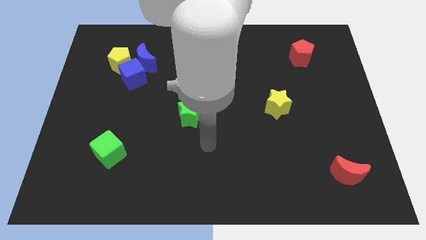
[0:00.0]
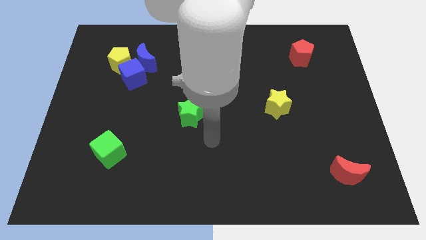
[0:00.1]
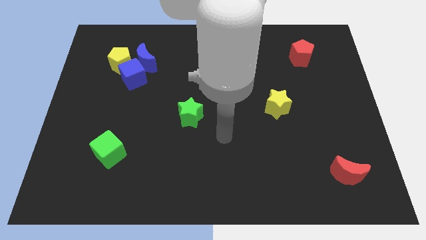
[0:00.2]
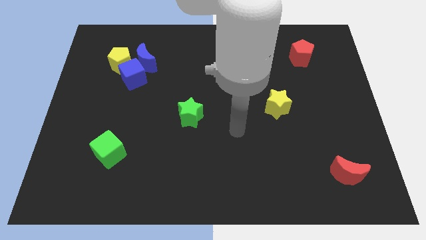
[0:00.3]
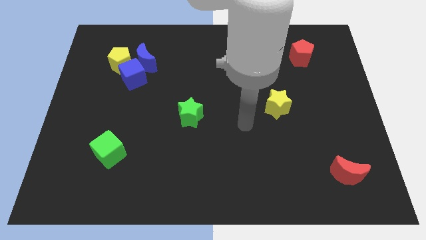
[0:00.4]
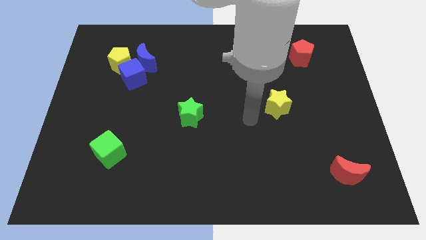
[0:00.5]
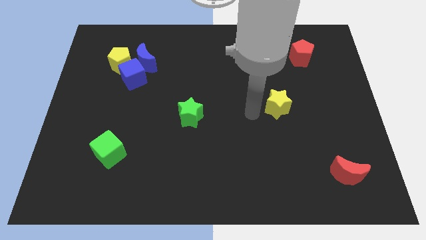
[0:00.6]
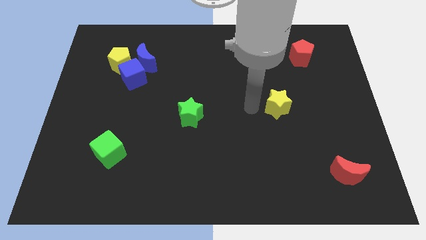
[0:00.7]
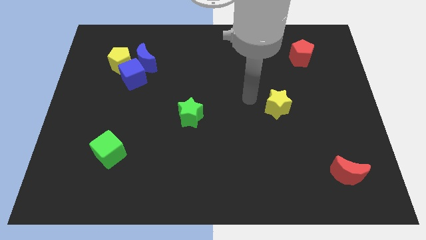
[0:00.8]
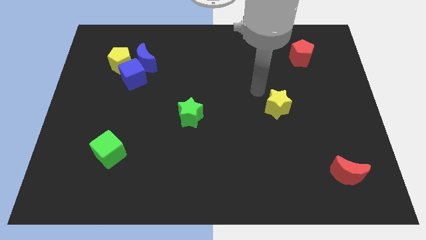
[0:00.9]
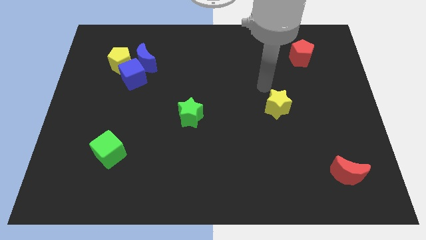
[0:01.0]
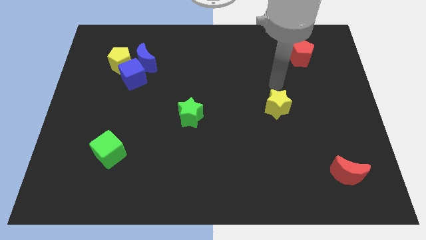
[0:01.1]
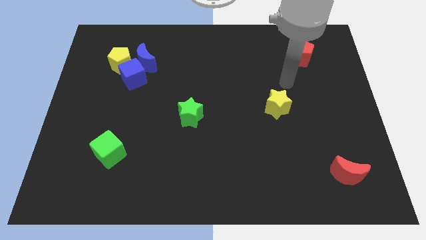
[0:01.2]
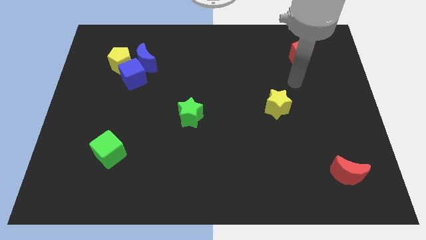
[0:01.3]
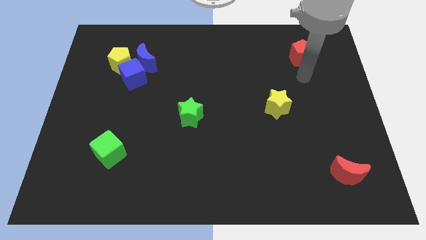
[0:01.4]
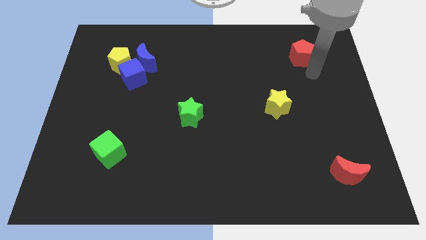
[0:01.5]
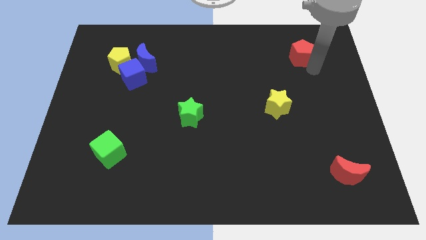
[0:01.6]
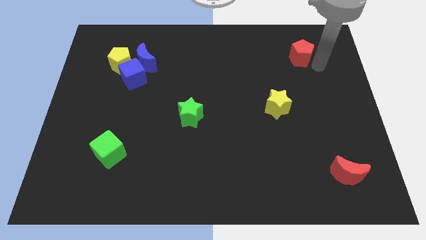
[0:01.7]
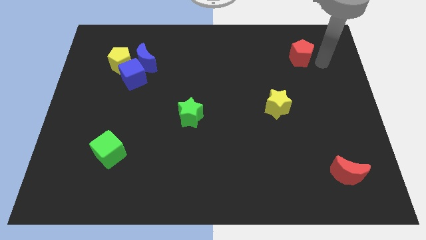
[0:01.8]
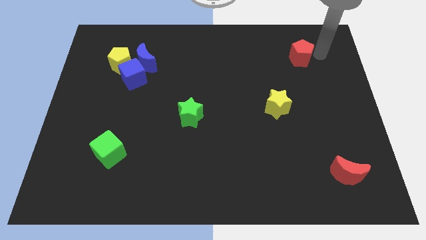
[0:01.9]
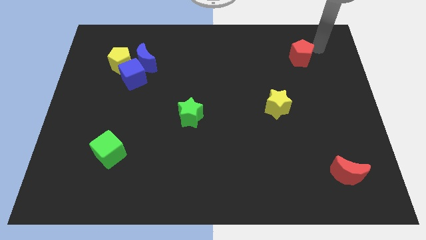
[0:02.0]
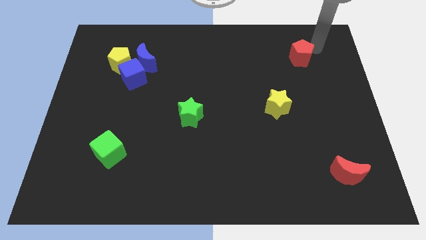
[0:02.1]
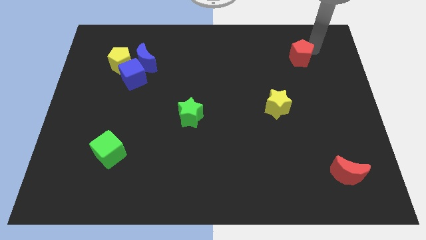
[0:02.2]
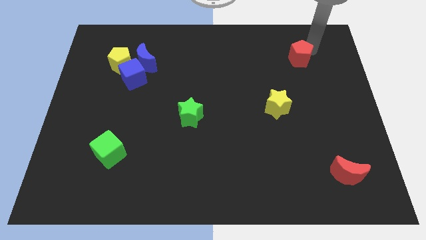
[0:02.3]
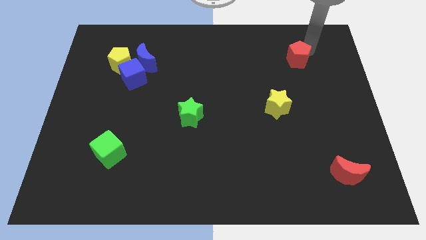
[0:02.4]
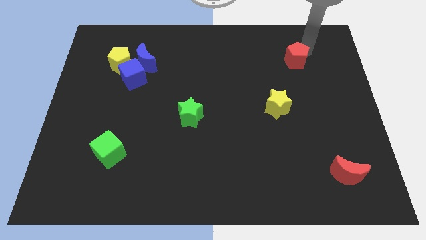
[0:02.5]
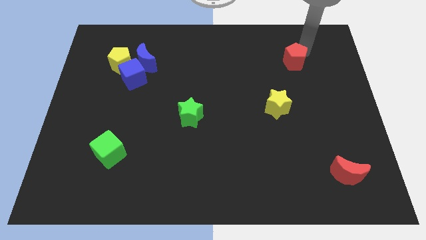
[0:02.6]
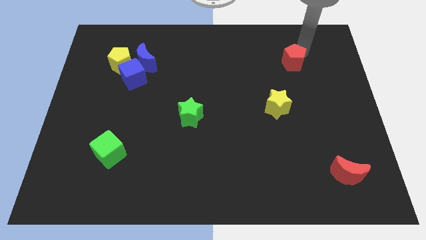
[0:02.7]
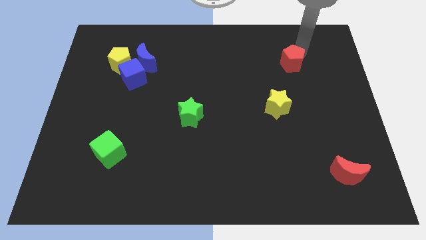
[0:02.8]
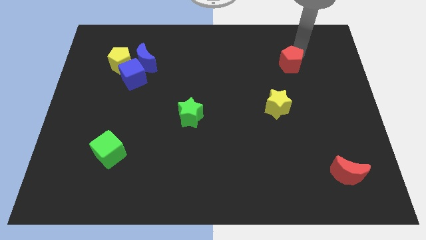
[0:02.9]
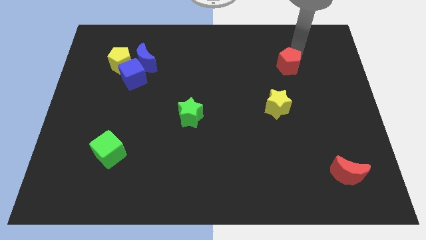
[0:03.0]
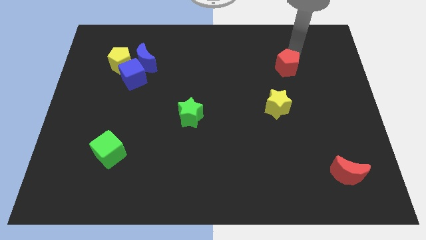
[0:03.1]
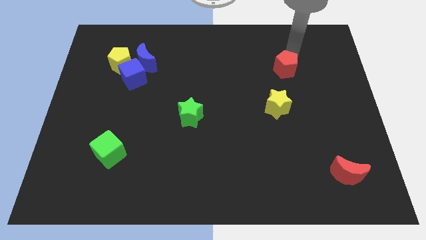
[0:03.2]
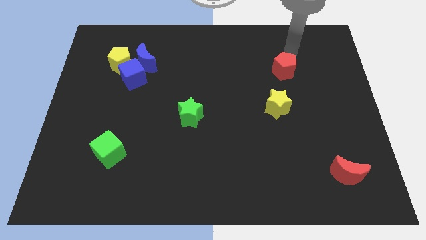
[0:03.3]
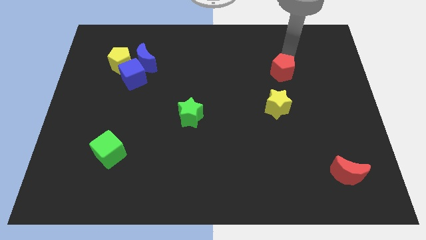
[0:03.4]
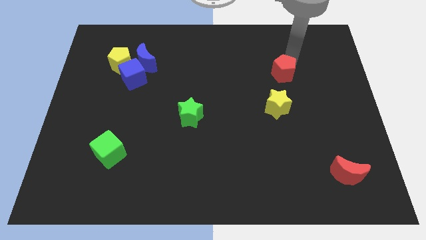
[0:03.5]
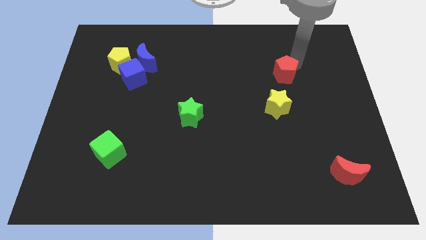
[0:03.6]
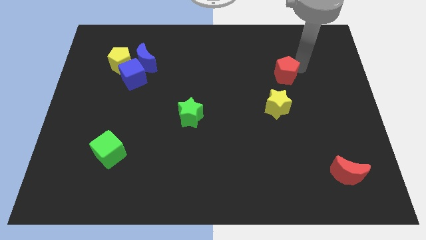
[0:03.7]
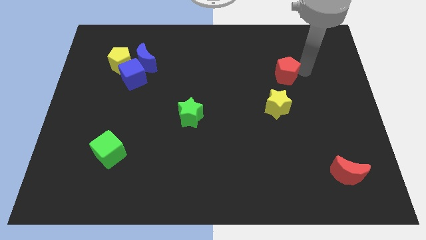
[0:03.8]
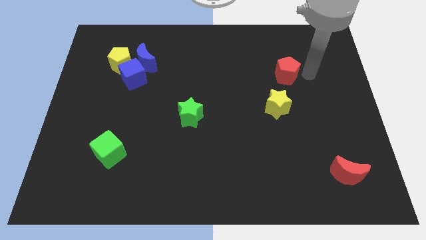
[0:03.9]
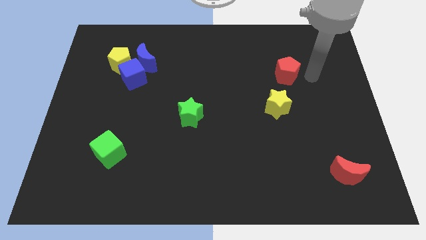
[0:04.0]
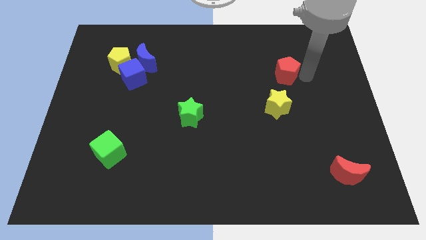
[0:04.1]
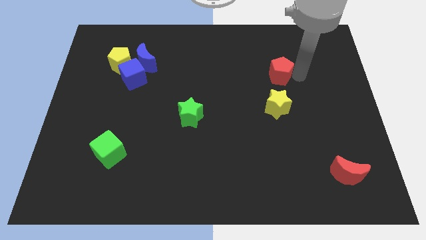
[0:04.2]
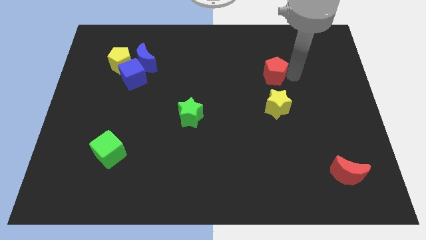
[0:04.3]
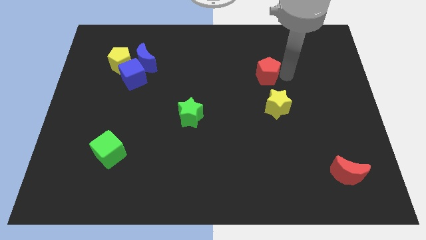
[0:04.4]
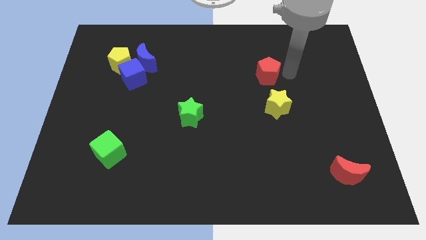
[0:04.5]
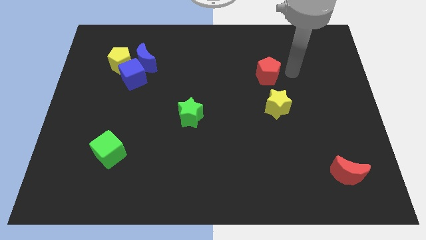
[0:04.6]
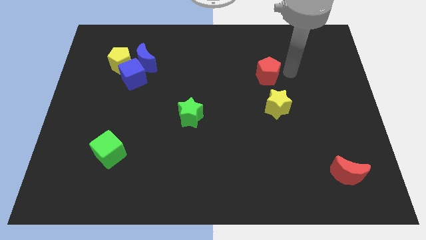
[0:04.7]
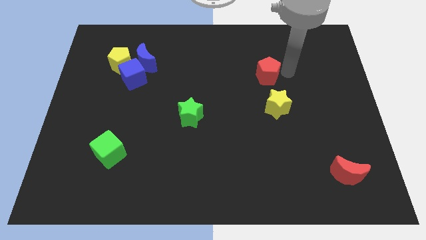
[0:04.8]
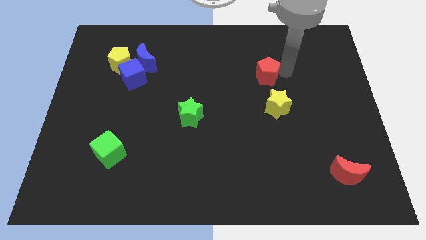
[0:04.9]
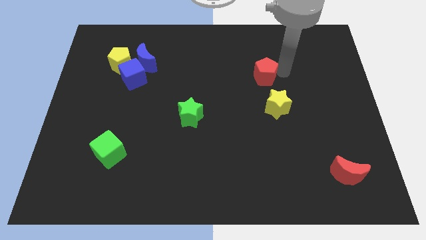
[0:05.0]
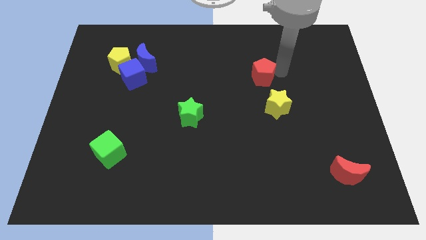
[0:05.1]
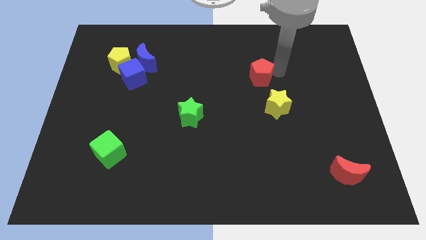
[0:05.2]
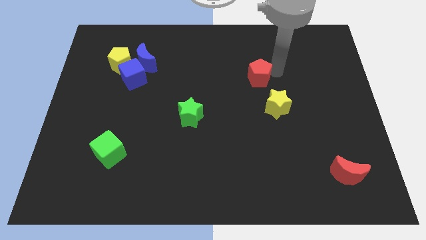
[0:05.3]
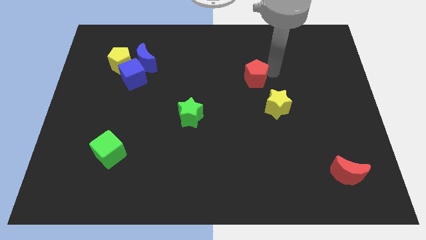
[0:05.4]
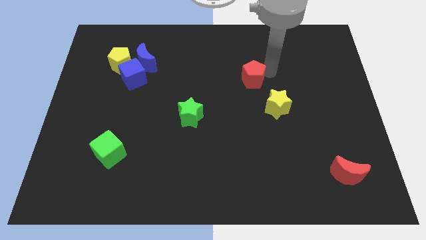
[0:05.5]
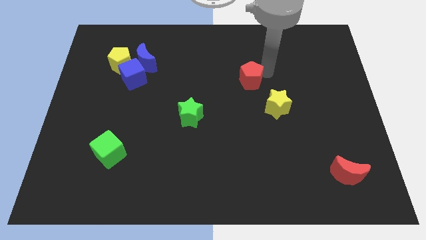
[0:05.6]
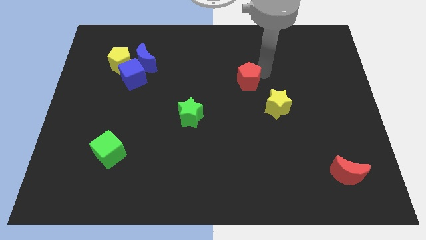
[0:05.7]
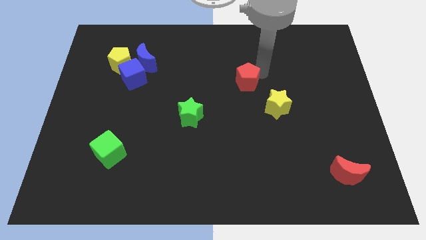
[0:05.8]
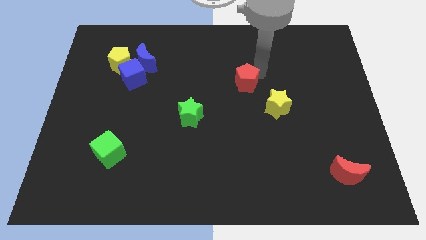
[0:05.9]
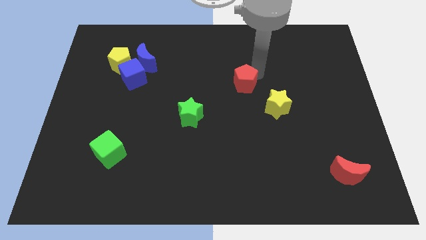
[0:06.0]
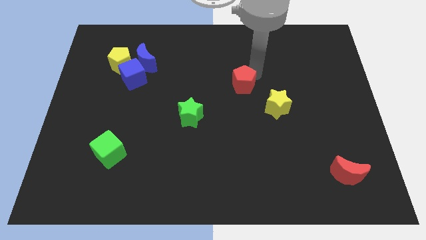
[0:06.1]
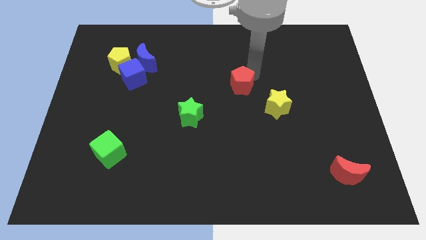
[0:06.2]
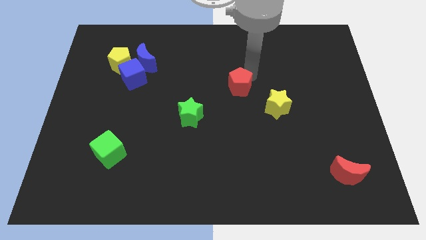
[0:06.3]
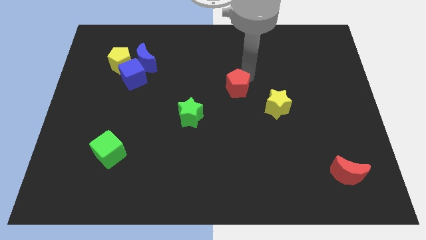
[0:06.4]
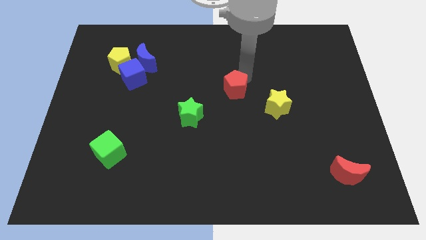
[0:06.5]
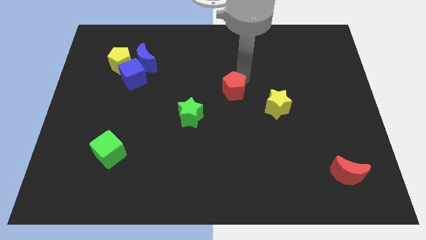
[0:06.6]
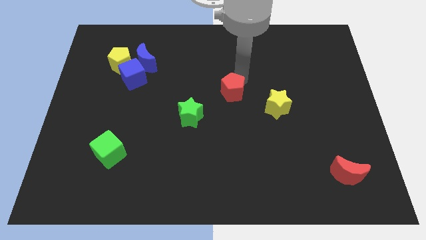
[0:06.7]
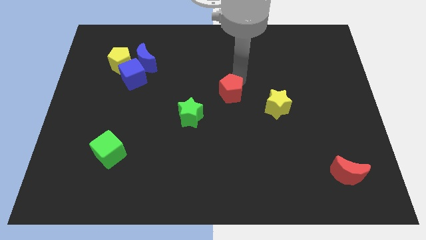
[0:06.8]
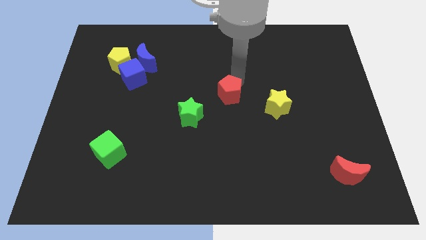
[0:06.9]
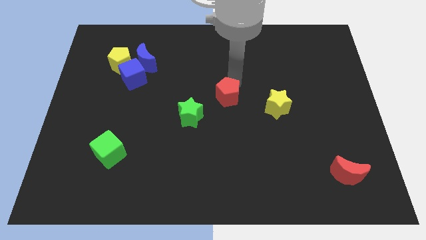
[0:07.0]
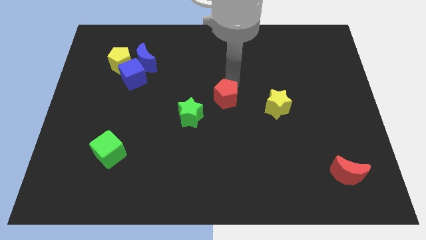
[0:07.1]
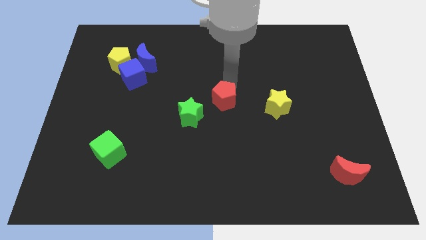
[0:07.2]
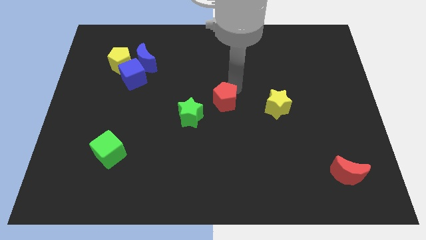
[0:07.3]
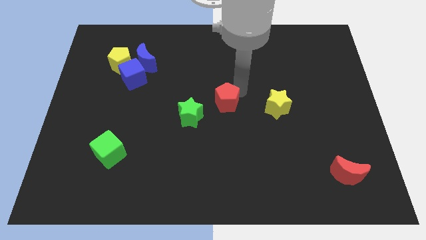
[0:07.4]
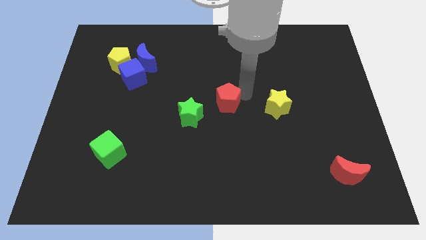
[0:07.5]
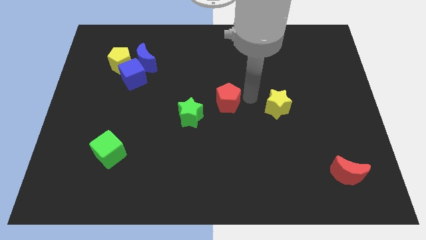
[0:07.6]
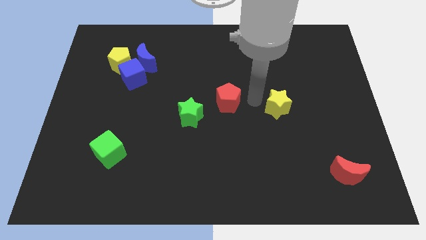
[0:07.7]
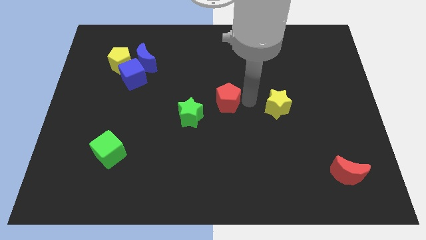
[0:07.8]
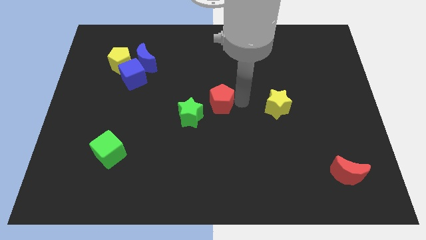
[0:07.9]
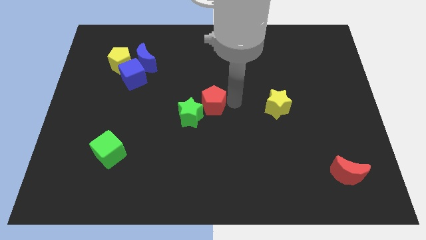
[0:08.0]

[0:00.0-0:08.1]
put the red pentagon next to the green star
